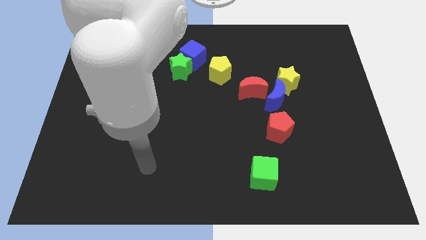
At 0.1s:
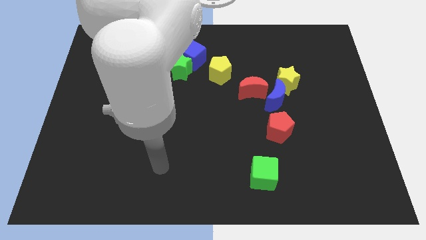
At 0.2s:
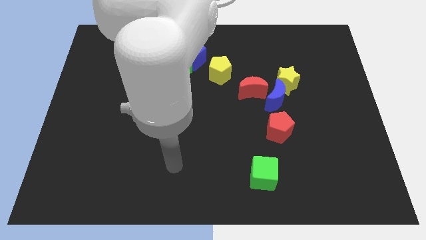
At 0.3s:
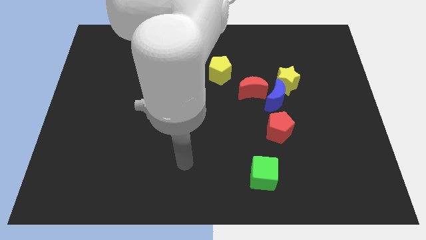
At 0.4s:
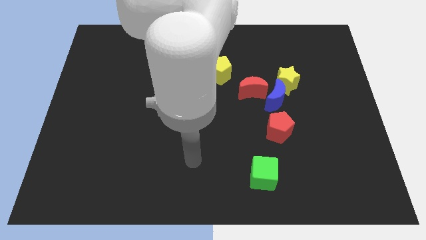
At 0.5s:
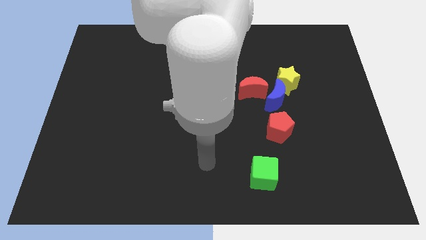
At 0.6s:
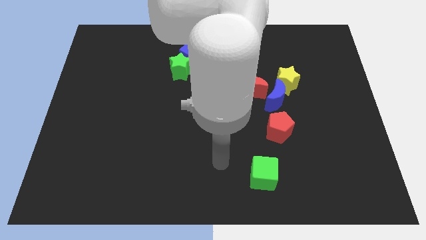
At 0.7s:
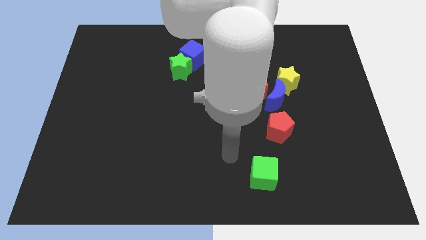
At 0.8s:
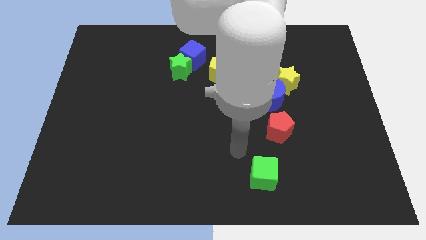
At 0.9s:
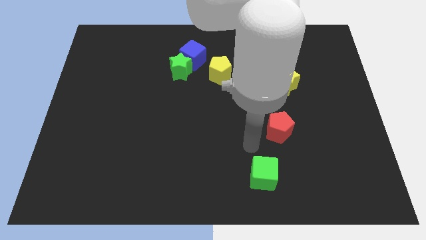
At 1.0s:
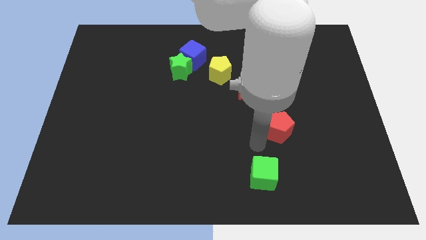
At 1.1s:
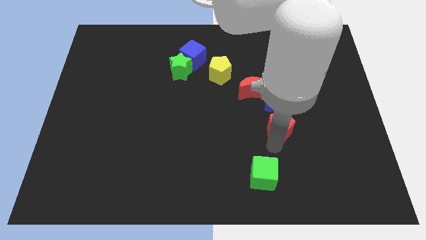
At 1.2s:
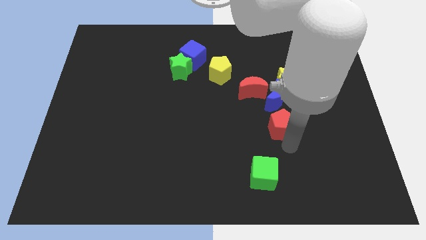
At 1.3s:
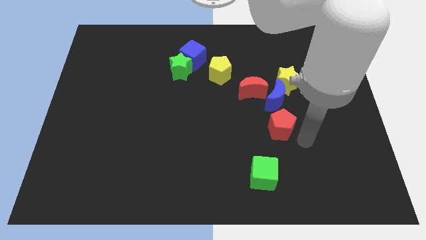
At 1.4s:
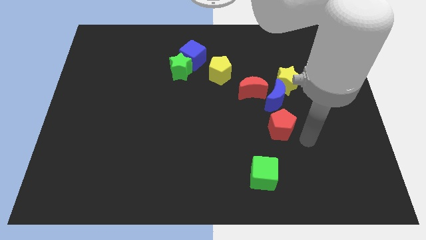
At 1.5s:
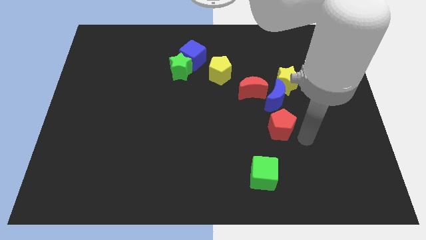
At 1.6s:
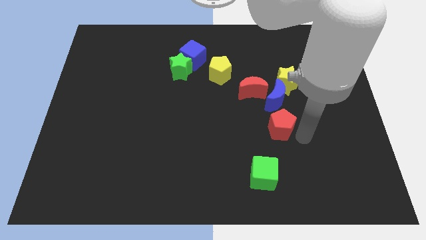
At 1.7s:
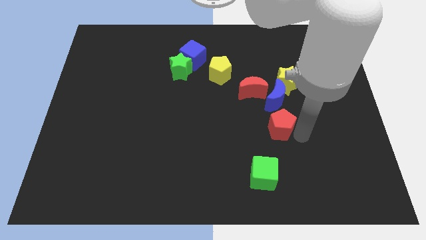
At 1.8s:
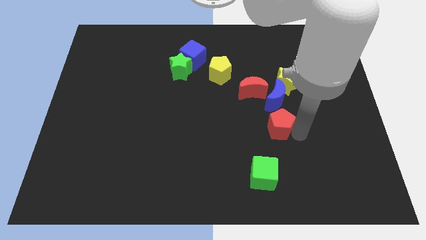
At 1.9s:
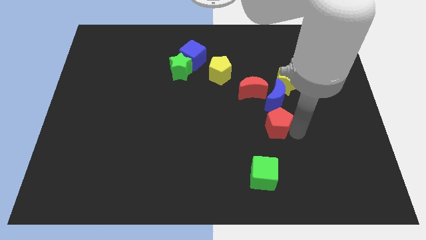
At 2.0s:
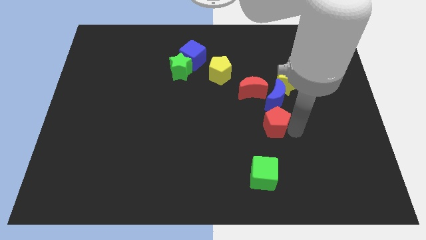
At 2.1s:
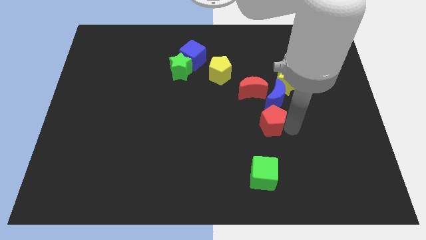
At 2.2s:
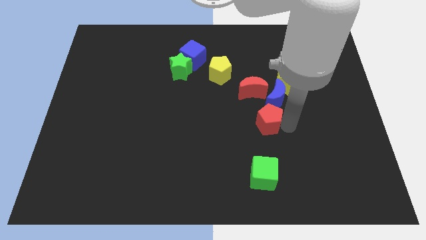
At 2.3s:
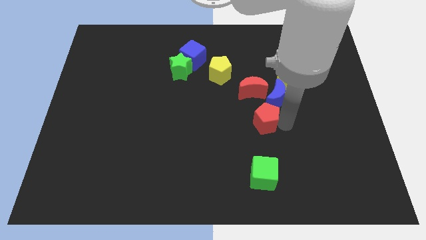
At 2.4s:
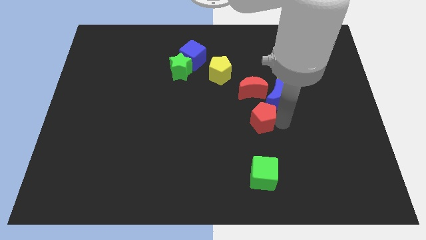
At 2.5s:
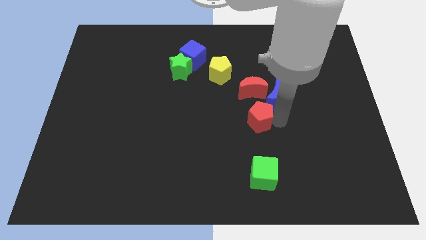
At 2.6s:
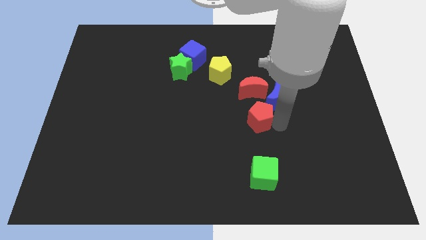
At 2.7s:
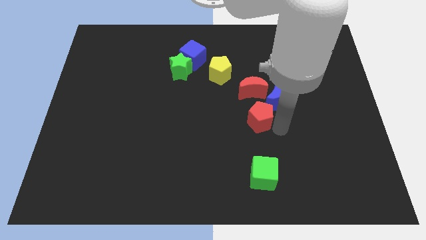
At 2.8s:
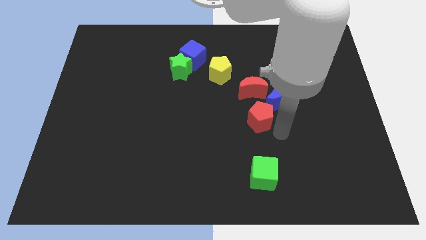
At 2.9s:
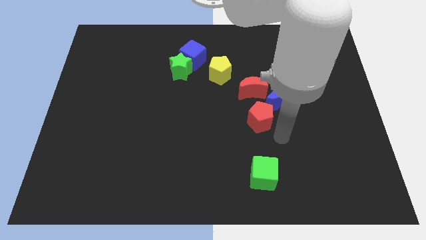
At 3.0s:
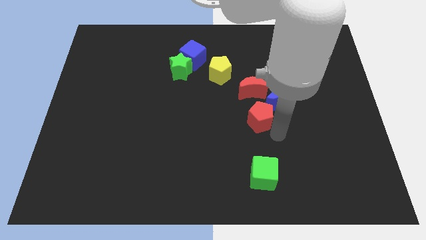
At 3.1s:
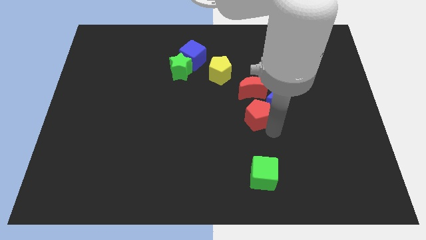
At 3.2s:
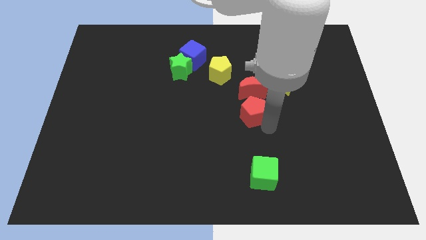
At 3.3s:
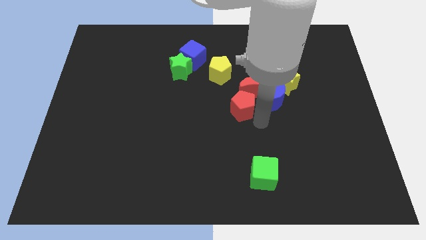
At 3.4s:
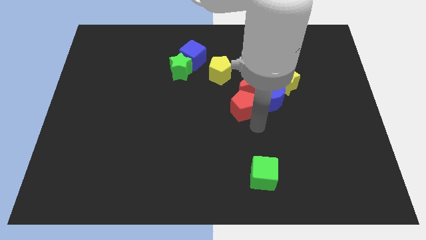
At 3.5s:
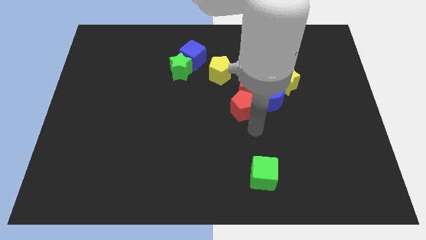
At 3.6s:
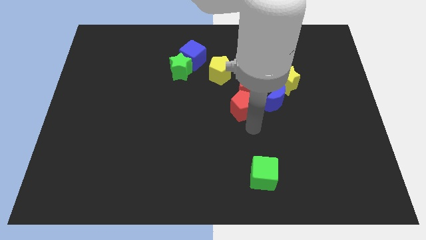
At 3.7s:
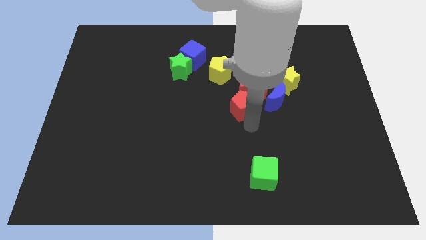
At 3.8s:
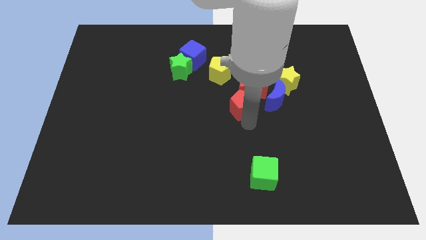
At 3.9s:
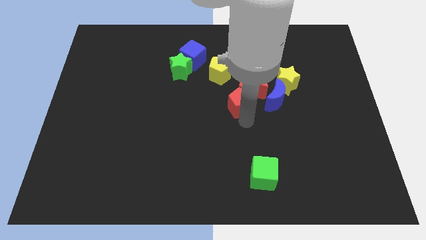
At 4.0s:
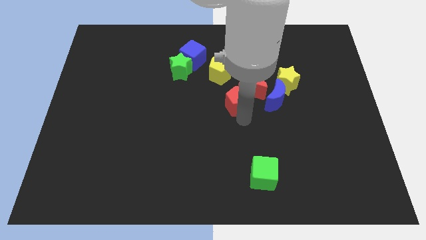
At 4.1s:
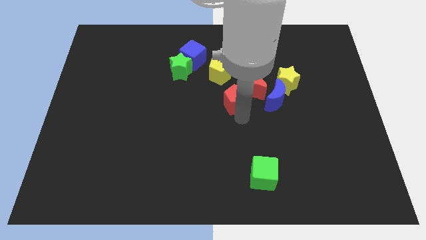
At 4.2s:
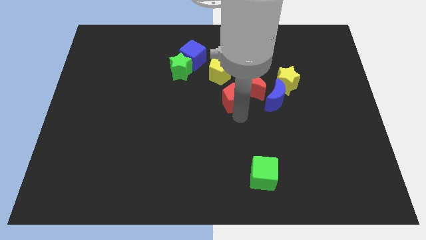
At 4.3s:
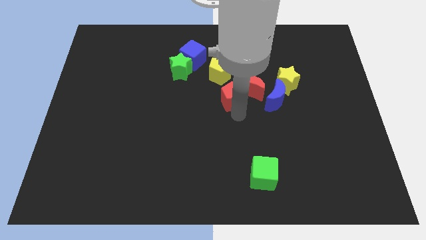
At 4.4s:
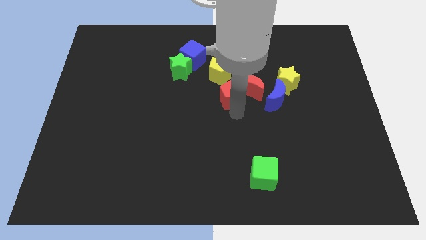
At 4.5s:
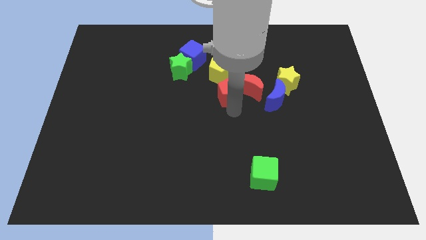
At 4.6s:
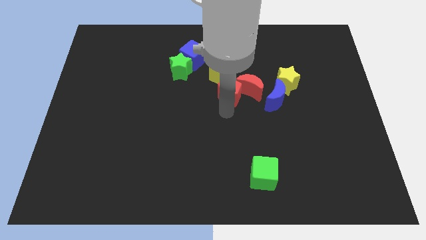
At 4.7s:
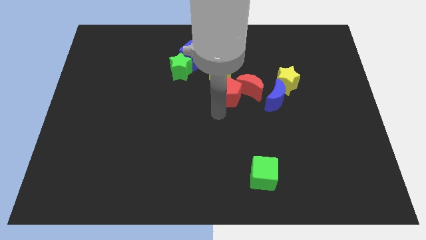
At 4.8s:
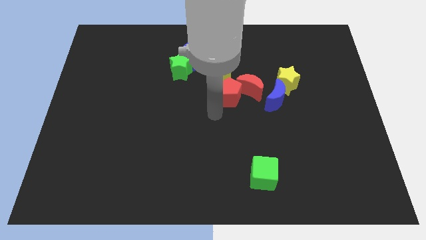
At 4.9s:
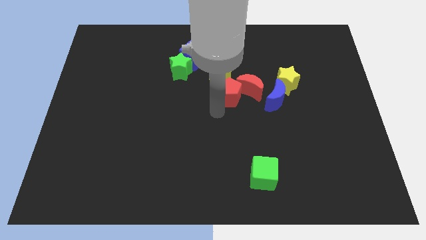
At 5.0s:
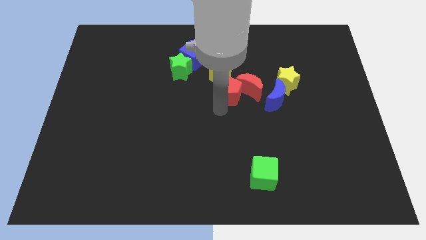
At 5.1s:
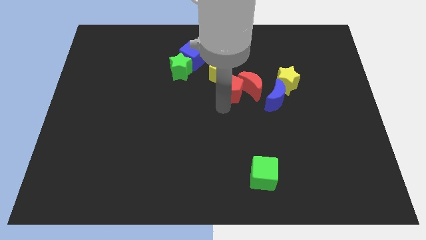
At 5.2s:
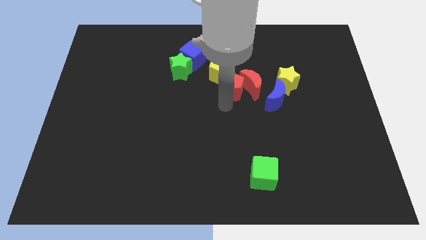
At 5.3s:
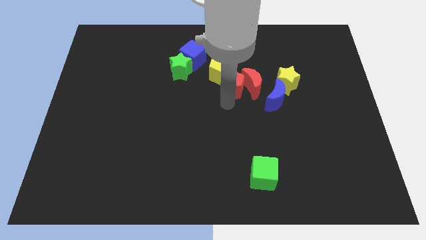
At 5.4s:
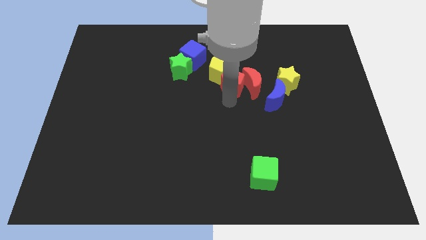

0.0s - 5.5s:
put the red pentagon to the right of the yellow pentagon

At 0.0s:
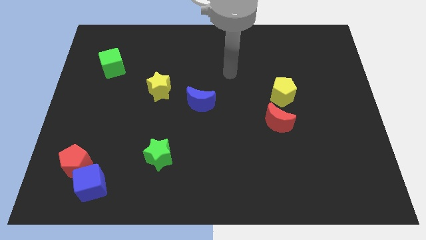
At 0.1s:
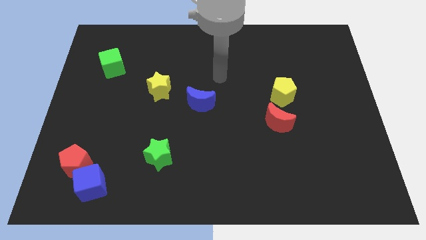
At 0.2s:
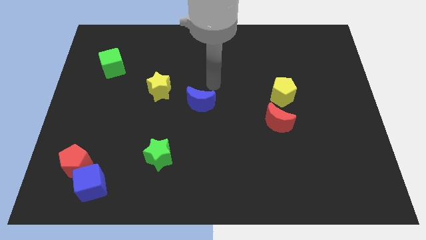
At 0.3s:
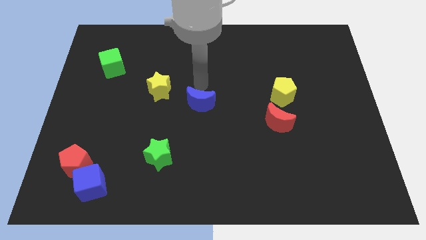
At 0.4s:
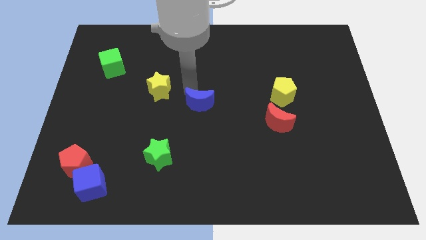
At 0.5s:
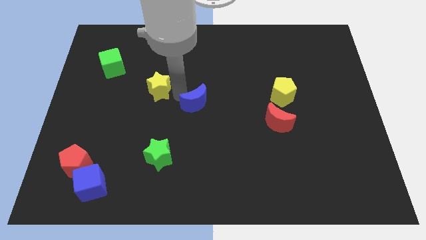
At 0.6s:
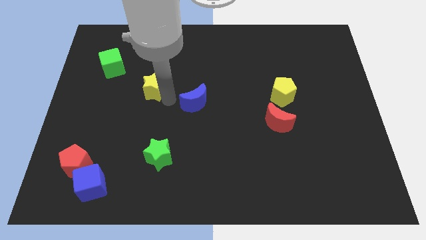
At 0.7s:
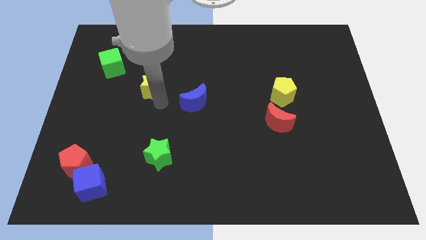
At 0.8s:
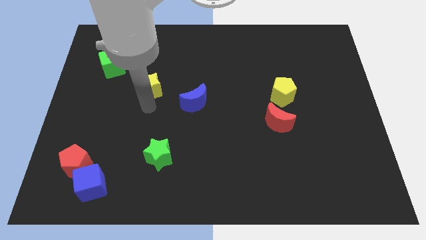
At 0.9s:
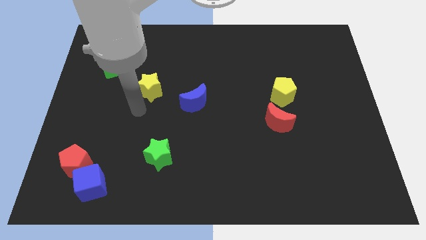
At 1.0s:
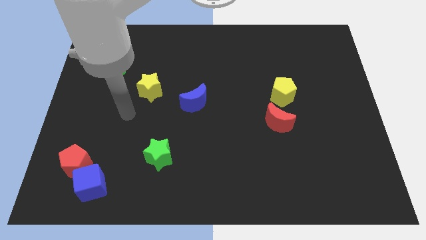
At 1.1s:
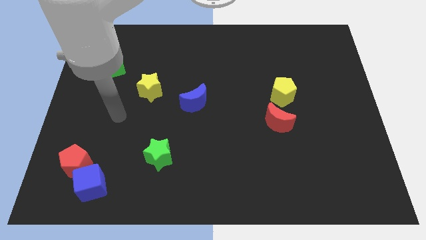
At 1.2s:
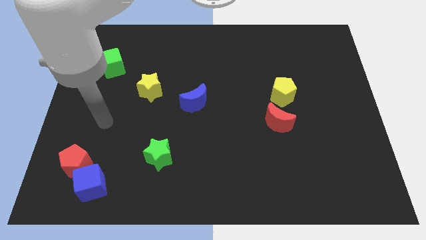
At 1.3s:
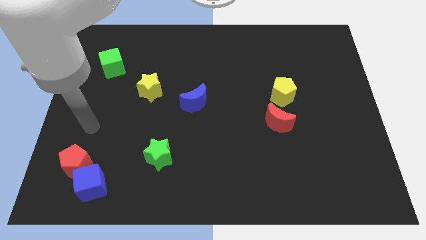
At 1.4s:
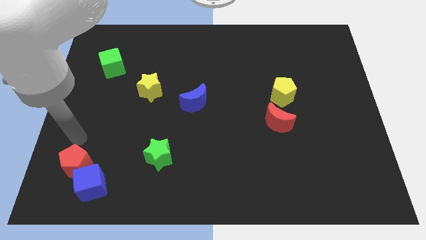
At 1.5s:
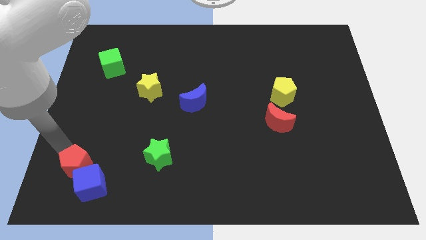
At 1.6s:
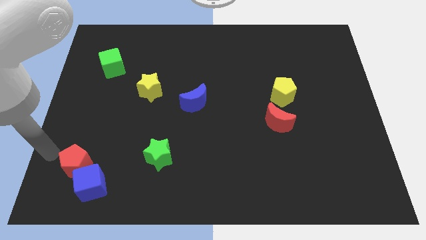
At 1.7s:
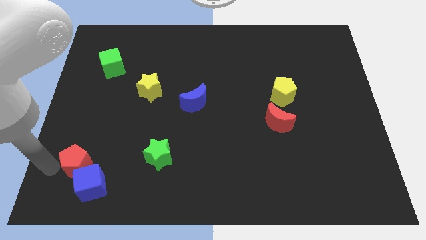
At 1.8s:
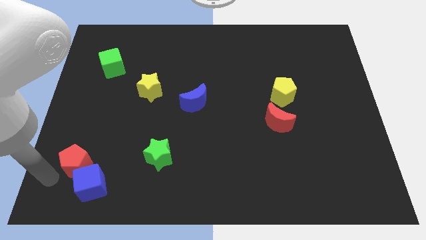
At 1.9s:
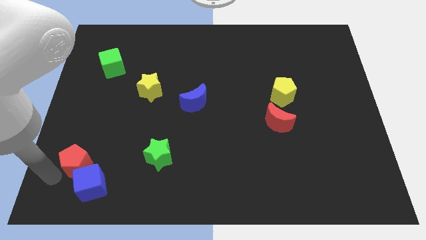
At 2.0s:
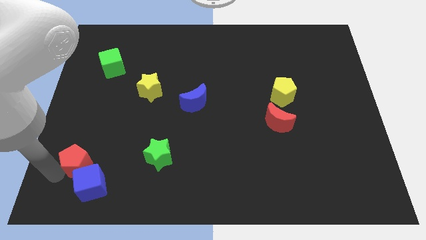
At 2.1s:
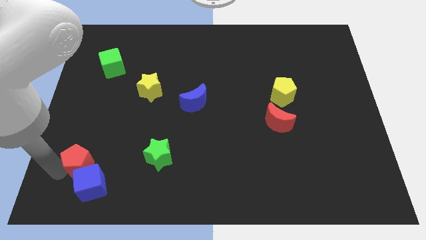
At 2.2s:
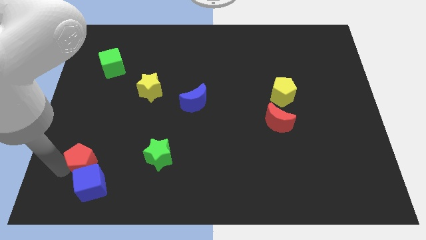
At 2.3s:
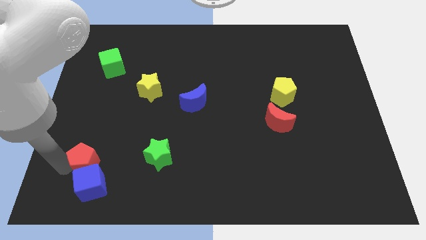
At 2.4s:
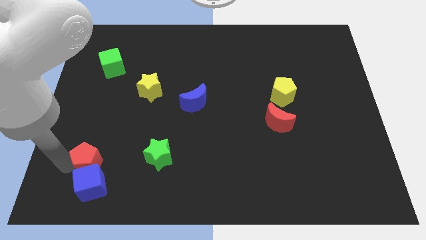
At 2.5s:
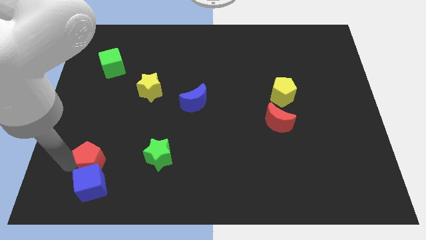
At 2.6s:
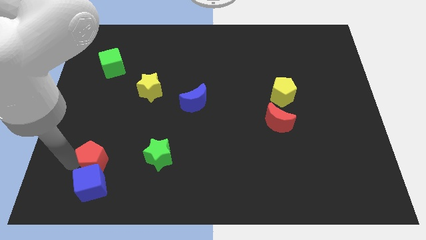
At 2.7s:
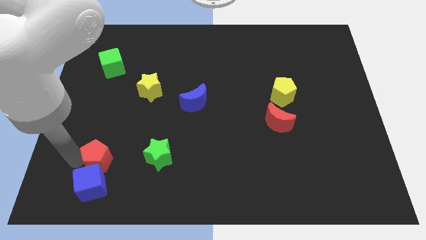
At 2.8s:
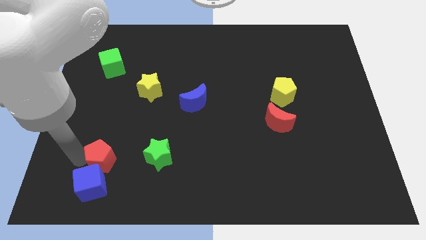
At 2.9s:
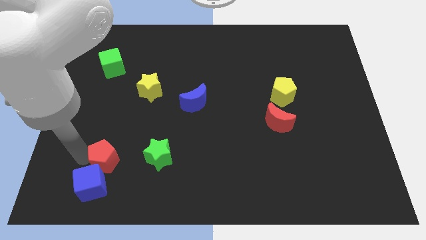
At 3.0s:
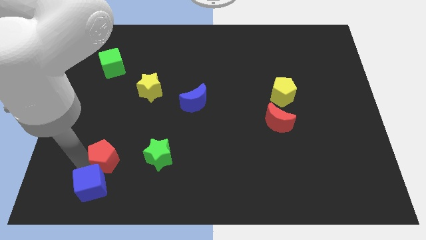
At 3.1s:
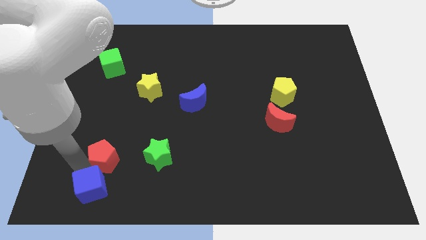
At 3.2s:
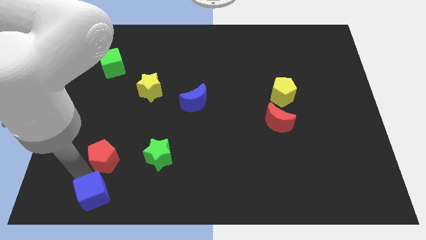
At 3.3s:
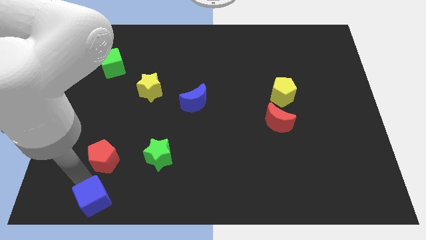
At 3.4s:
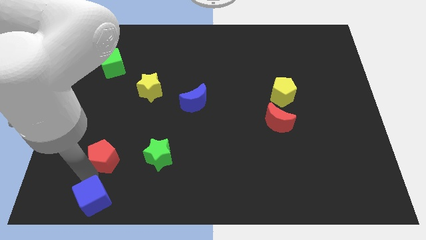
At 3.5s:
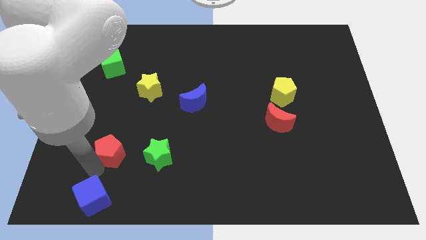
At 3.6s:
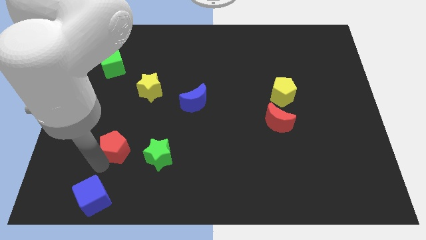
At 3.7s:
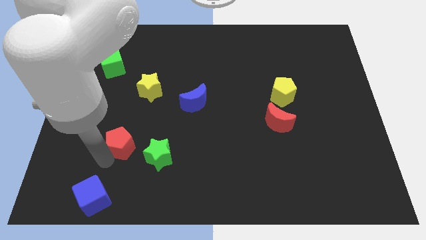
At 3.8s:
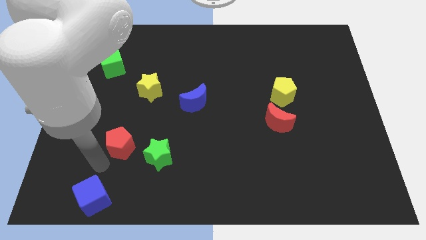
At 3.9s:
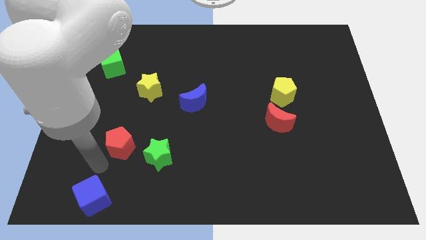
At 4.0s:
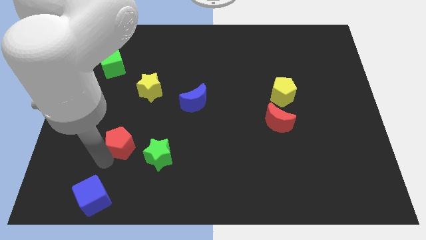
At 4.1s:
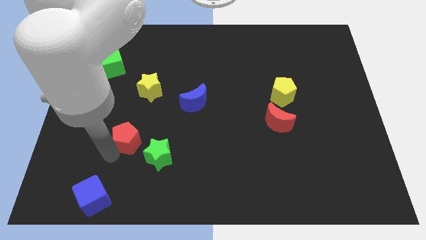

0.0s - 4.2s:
put the red pentagon to the bottom side of the yellow star
